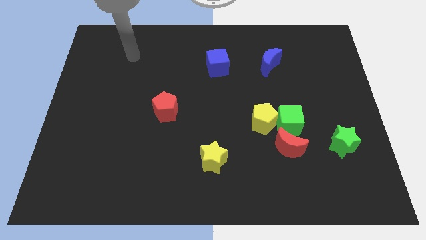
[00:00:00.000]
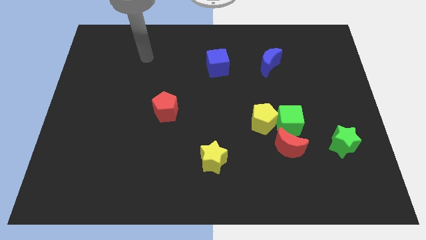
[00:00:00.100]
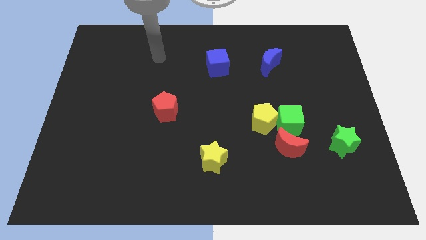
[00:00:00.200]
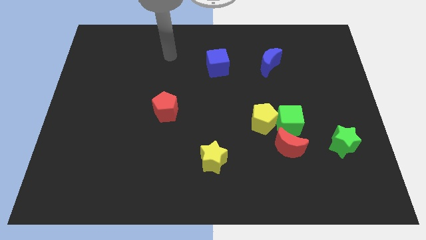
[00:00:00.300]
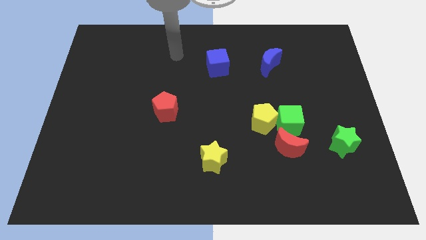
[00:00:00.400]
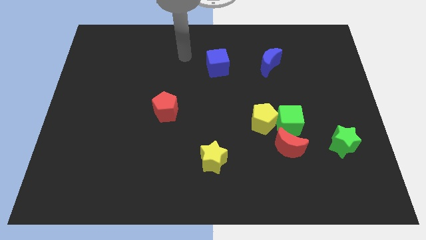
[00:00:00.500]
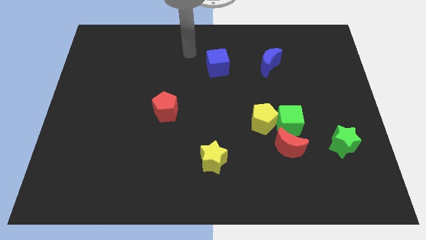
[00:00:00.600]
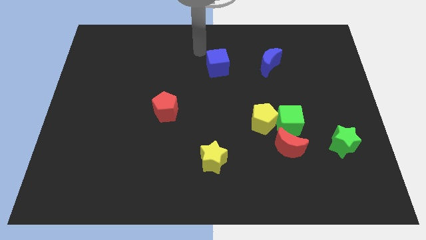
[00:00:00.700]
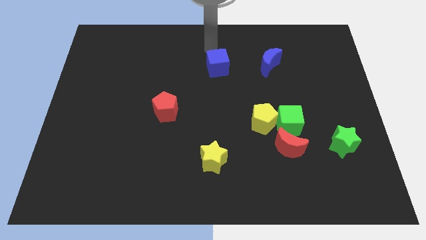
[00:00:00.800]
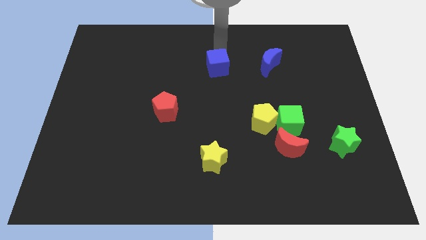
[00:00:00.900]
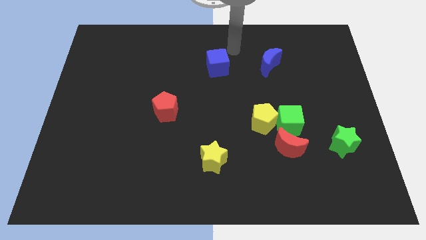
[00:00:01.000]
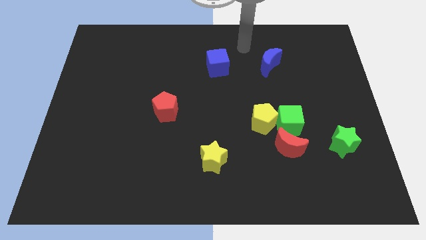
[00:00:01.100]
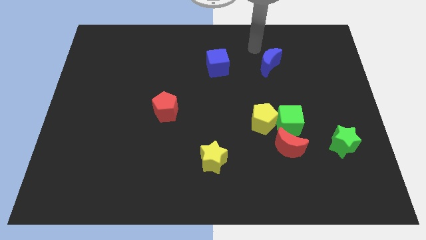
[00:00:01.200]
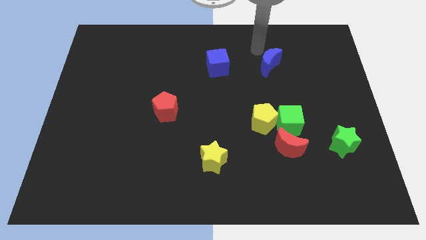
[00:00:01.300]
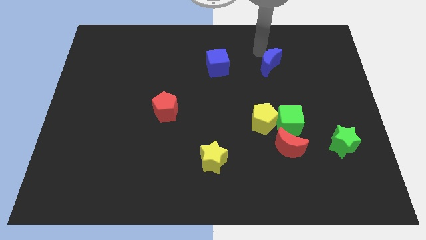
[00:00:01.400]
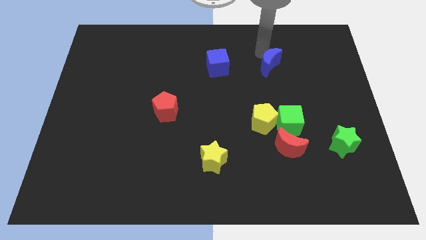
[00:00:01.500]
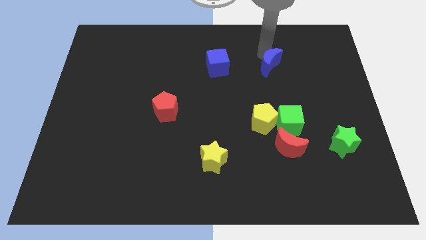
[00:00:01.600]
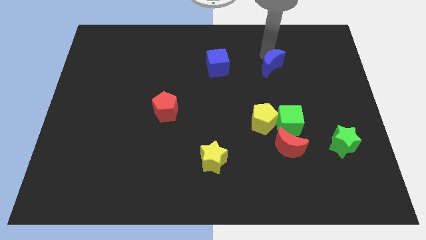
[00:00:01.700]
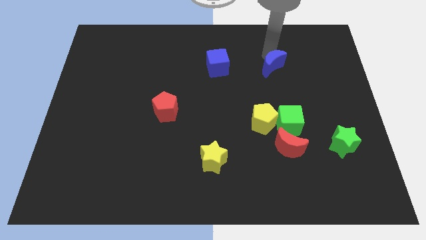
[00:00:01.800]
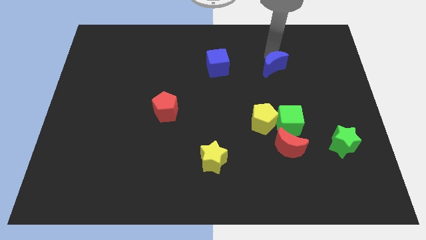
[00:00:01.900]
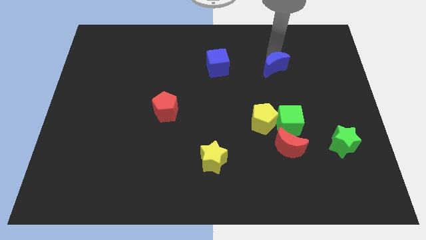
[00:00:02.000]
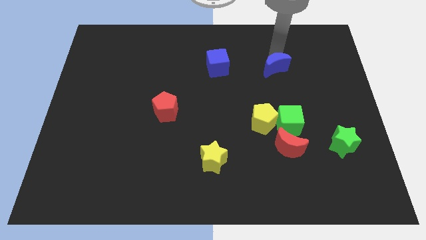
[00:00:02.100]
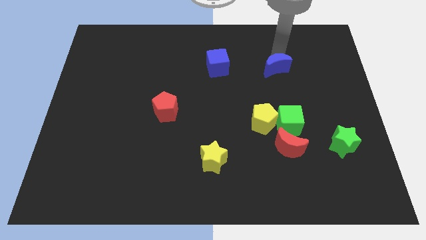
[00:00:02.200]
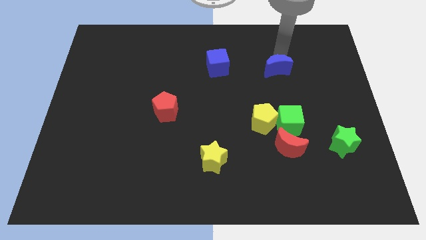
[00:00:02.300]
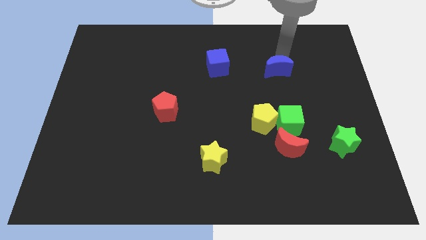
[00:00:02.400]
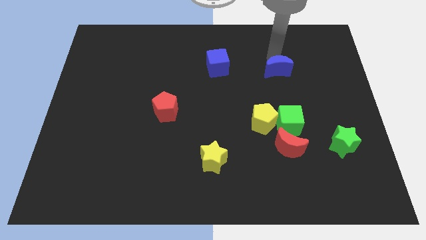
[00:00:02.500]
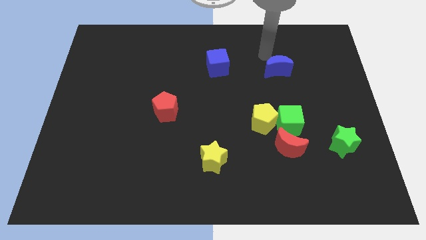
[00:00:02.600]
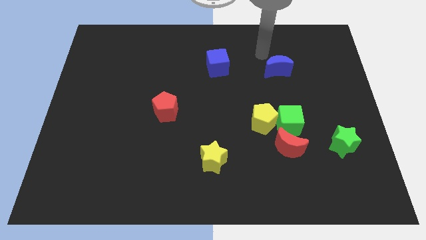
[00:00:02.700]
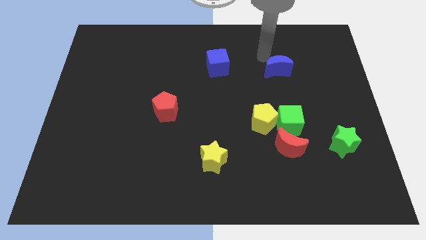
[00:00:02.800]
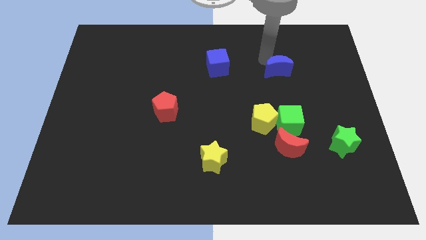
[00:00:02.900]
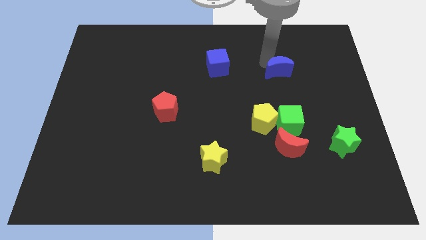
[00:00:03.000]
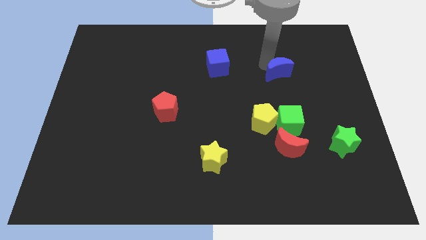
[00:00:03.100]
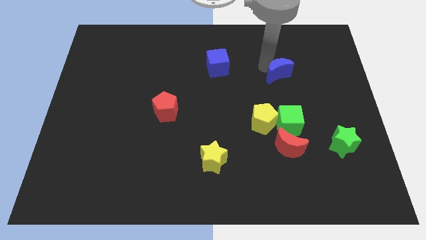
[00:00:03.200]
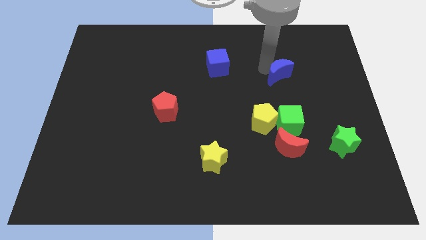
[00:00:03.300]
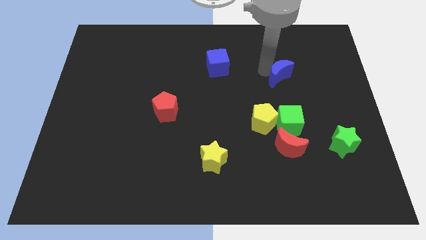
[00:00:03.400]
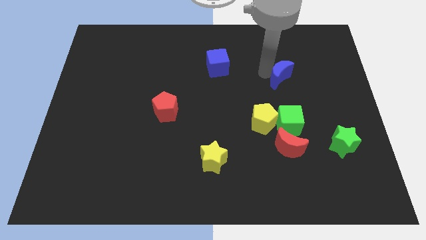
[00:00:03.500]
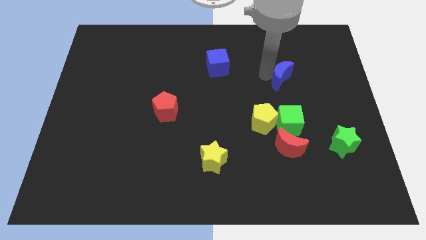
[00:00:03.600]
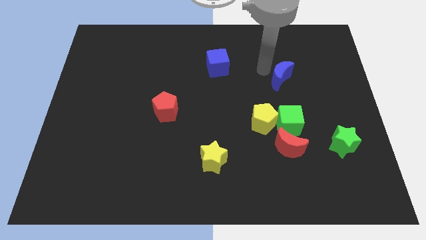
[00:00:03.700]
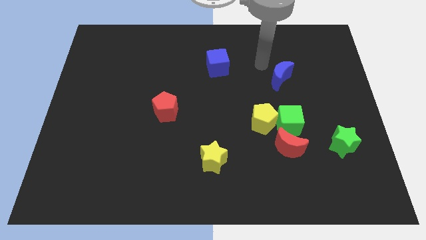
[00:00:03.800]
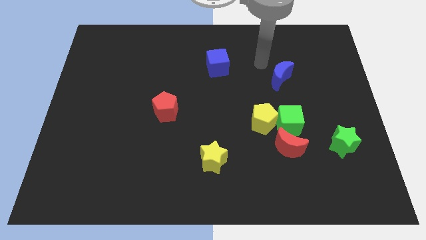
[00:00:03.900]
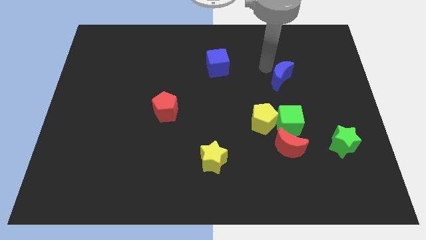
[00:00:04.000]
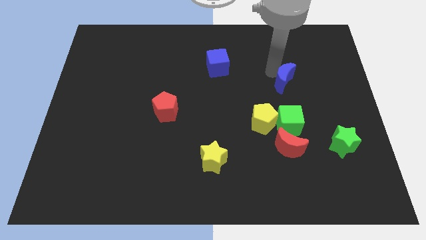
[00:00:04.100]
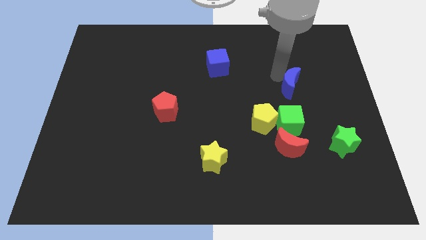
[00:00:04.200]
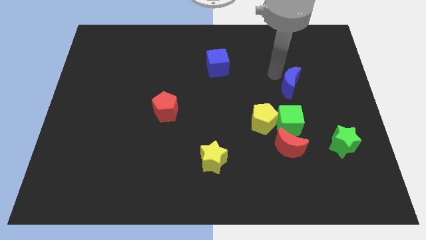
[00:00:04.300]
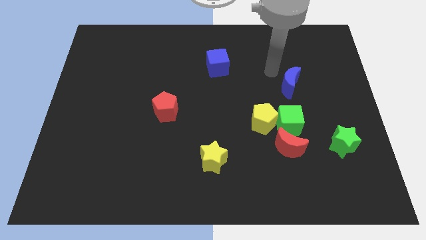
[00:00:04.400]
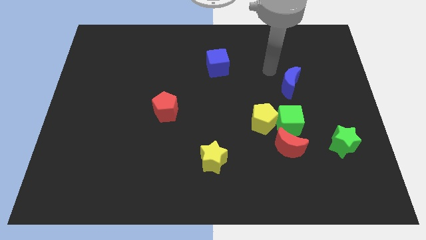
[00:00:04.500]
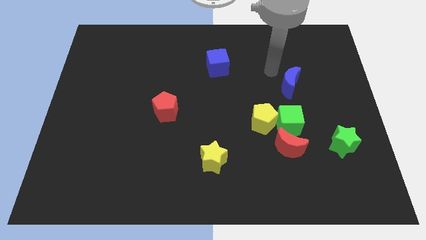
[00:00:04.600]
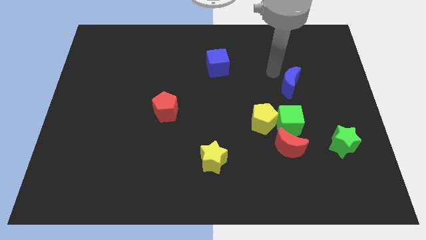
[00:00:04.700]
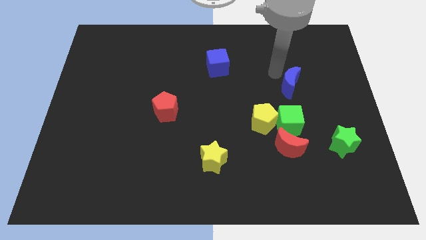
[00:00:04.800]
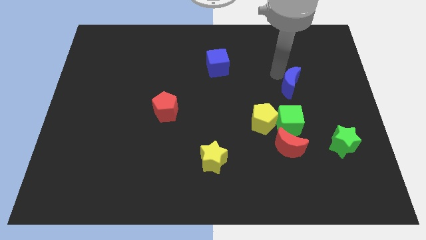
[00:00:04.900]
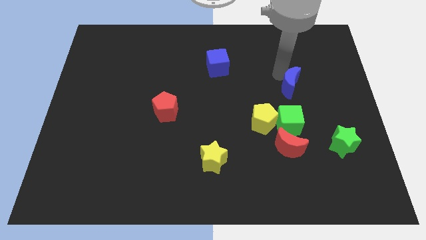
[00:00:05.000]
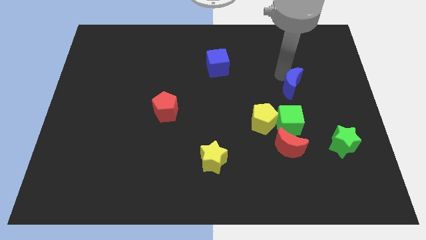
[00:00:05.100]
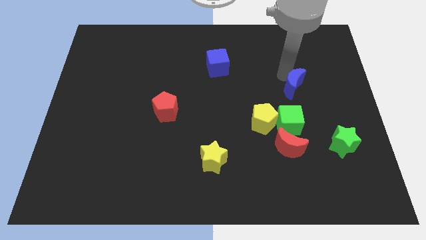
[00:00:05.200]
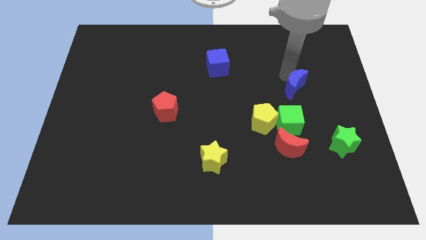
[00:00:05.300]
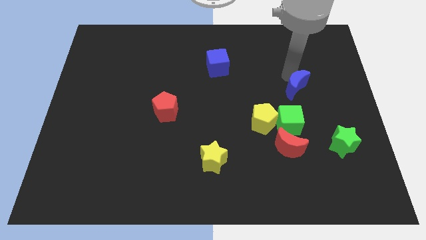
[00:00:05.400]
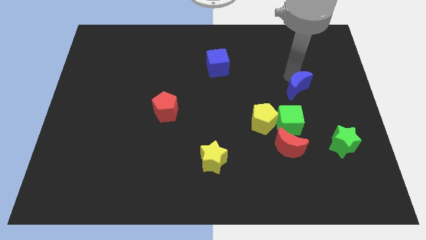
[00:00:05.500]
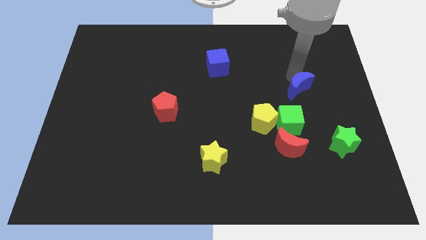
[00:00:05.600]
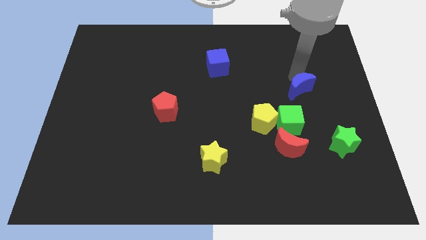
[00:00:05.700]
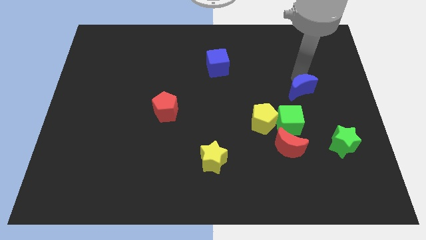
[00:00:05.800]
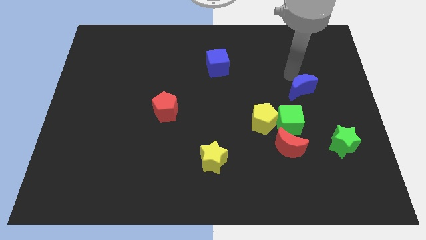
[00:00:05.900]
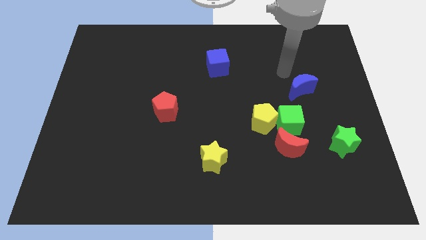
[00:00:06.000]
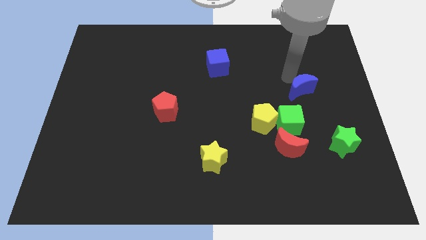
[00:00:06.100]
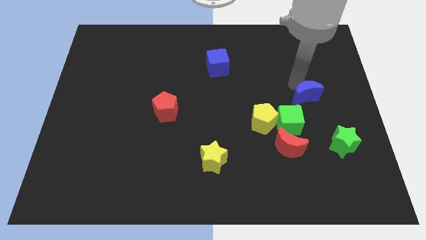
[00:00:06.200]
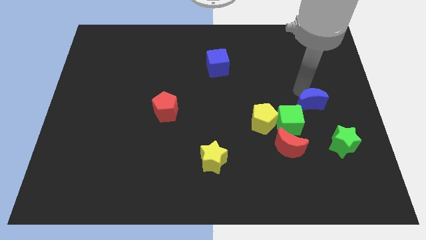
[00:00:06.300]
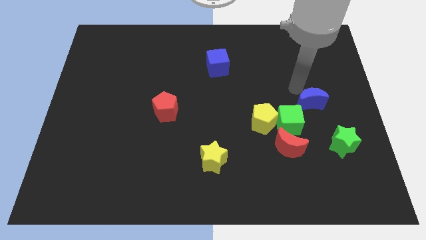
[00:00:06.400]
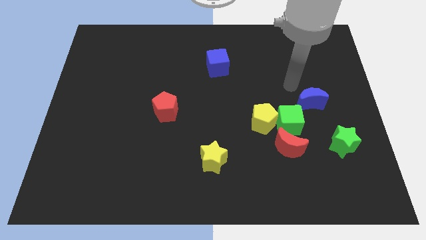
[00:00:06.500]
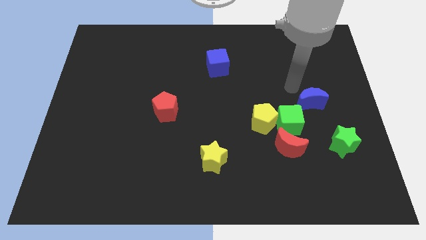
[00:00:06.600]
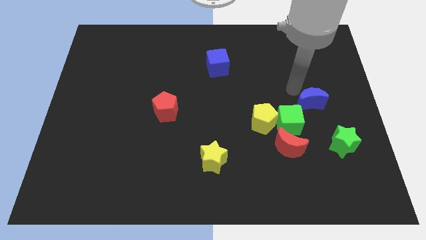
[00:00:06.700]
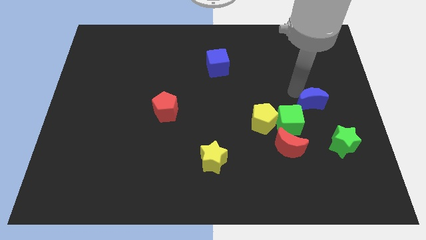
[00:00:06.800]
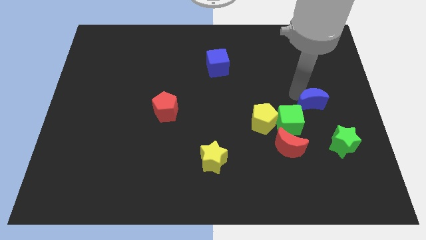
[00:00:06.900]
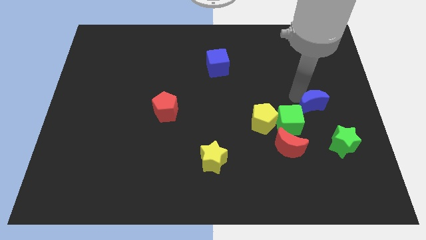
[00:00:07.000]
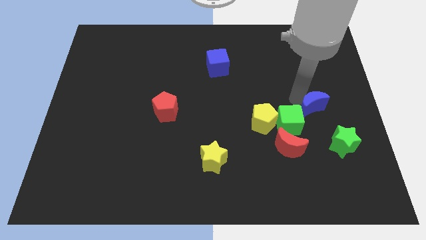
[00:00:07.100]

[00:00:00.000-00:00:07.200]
put the blue moon to the right of the green cube
